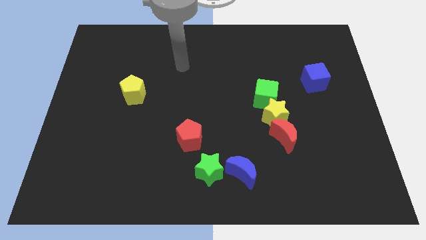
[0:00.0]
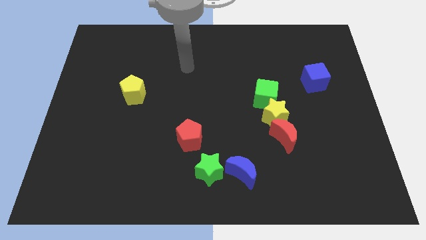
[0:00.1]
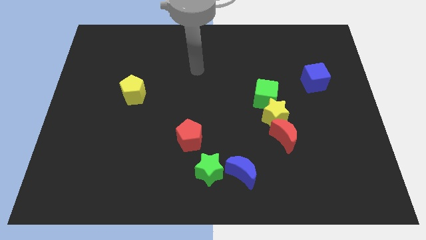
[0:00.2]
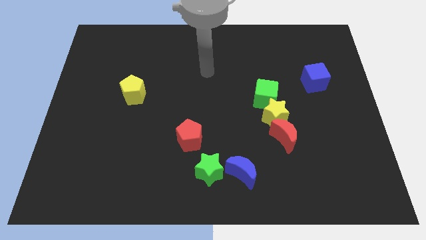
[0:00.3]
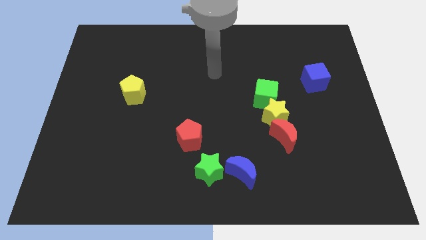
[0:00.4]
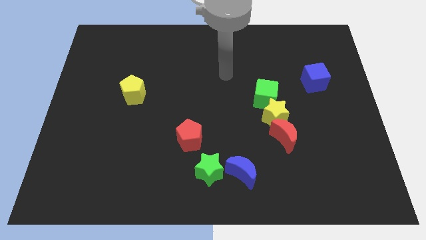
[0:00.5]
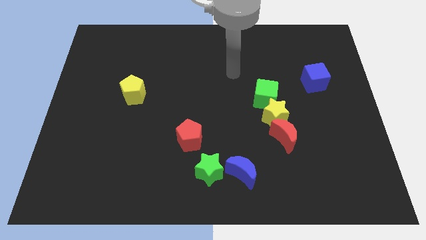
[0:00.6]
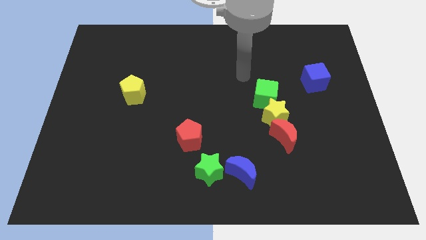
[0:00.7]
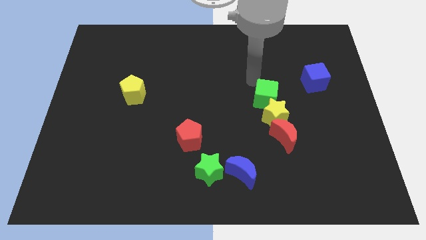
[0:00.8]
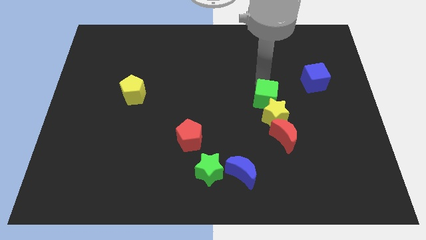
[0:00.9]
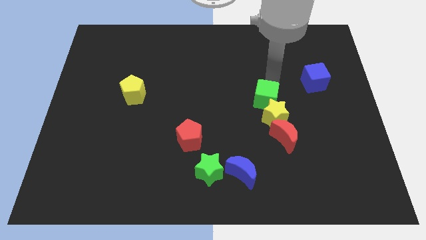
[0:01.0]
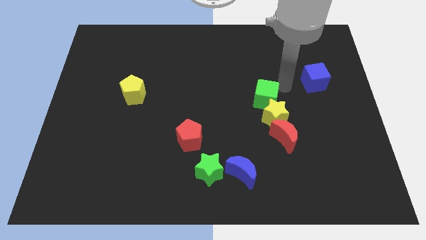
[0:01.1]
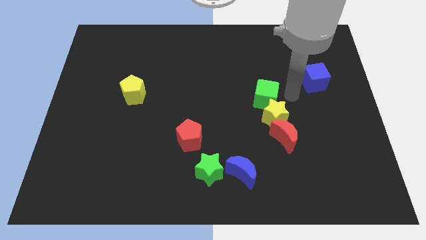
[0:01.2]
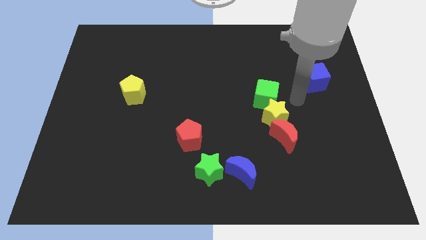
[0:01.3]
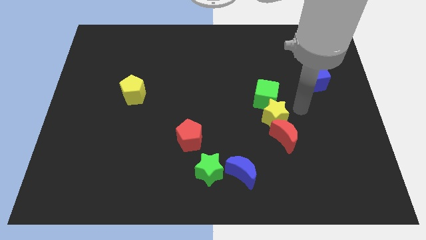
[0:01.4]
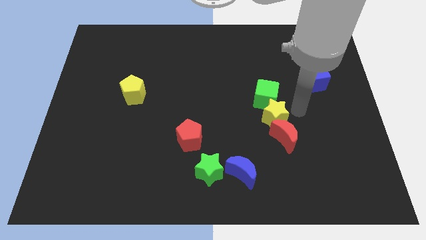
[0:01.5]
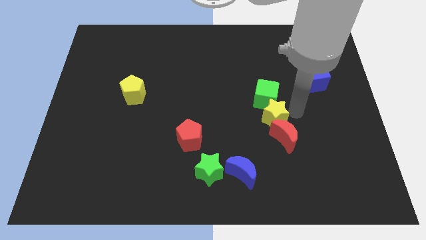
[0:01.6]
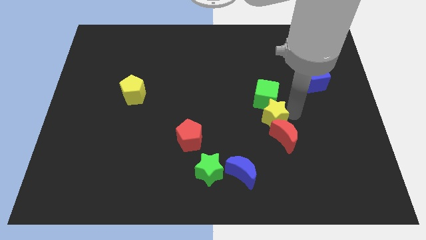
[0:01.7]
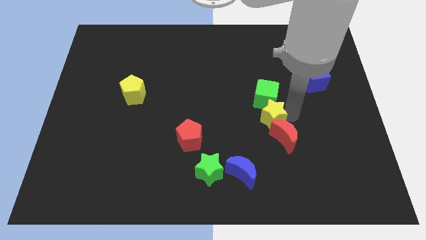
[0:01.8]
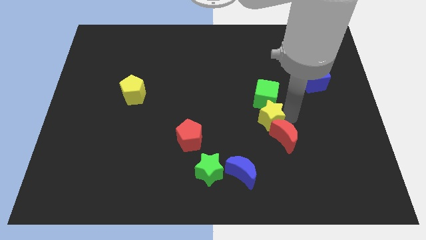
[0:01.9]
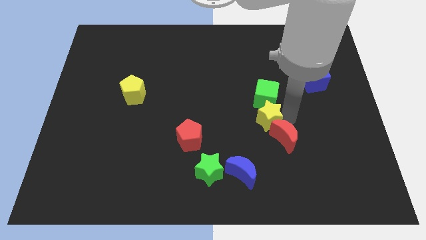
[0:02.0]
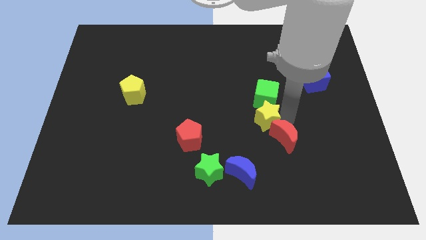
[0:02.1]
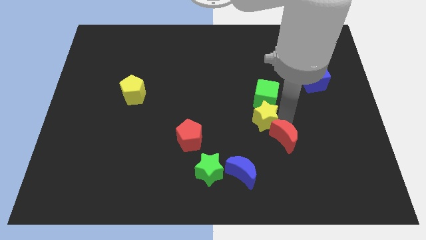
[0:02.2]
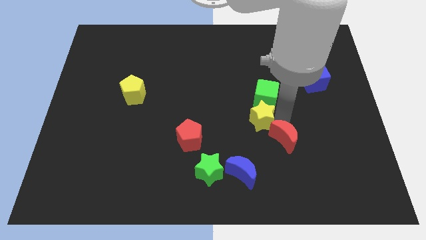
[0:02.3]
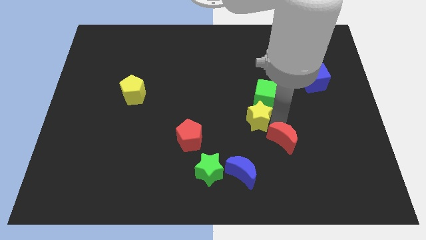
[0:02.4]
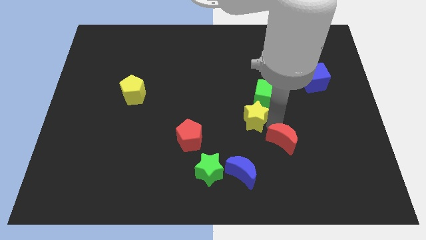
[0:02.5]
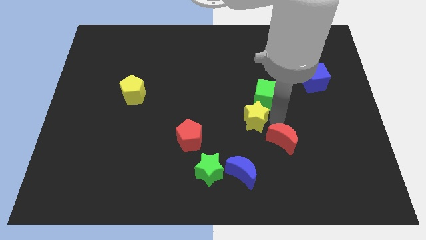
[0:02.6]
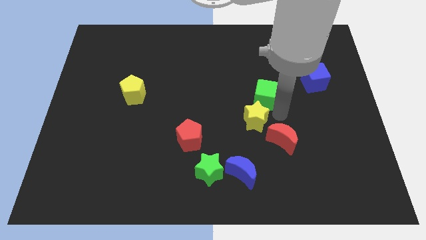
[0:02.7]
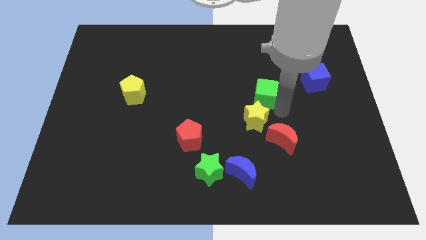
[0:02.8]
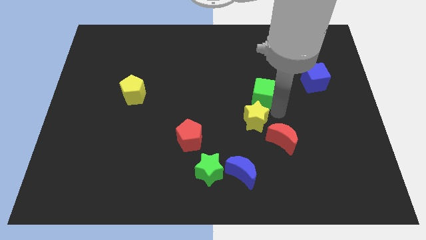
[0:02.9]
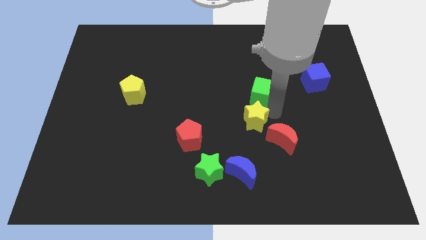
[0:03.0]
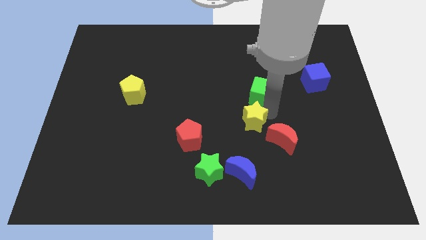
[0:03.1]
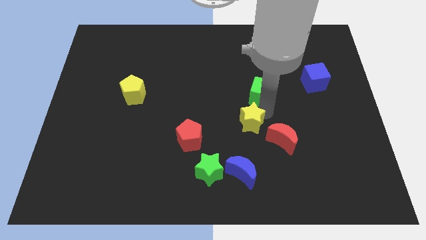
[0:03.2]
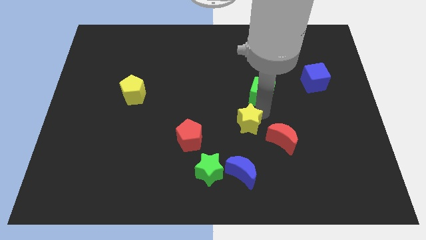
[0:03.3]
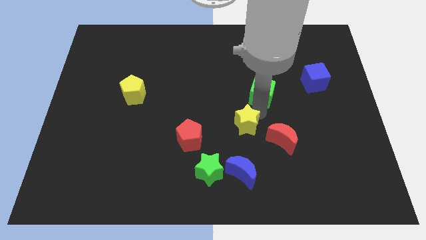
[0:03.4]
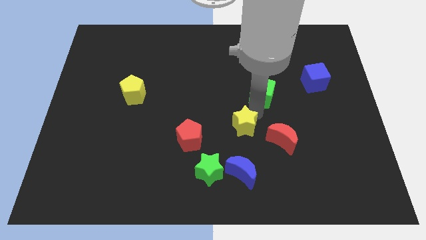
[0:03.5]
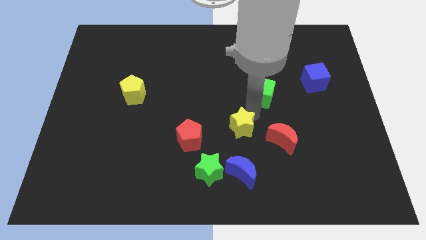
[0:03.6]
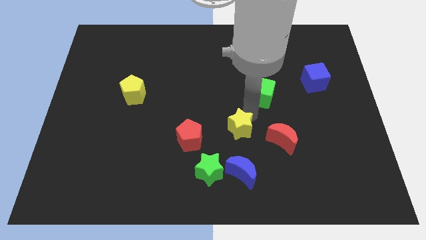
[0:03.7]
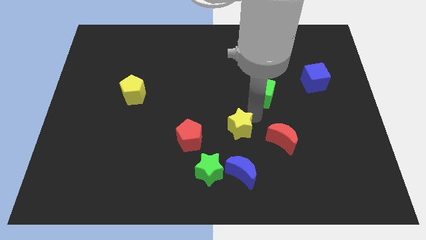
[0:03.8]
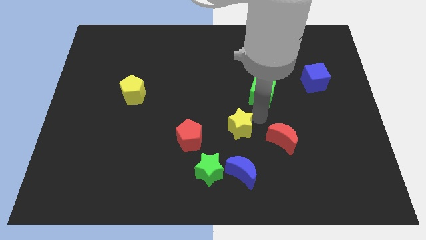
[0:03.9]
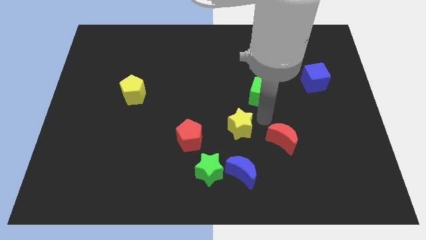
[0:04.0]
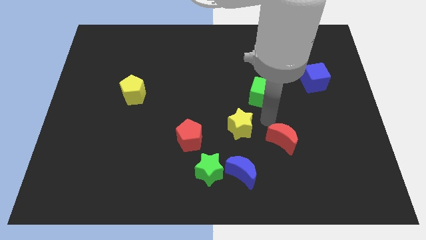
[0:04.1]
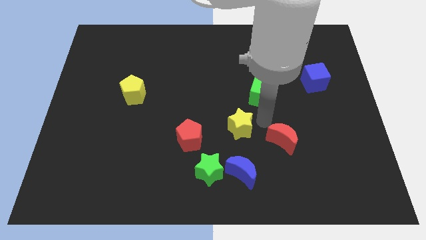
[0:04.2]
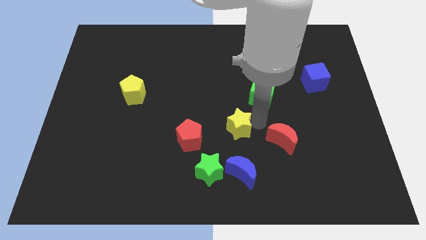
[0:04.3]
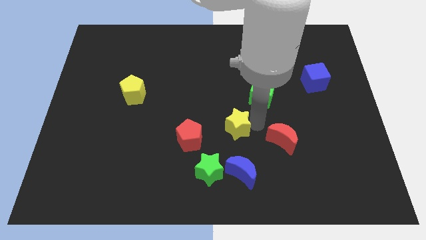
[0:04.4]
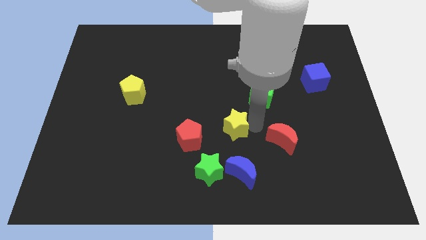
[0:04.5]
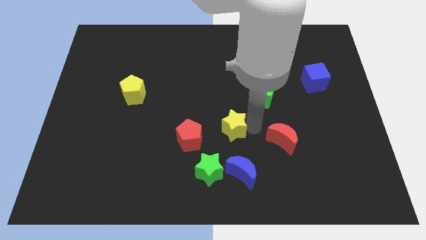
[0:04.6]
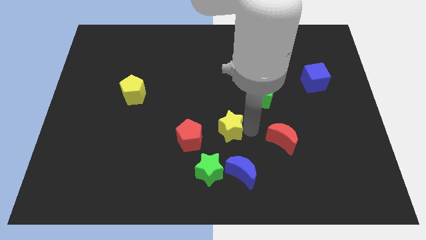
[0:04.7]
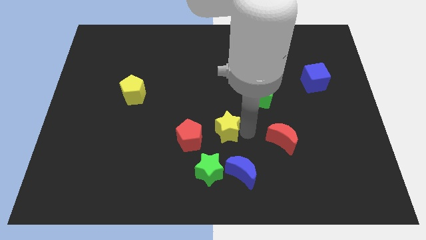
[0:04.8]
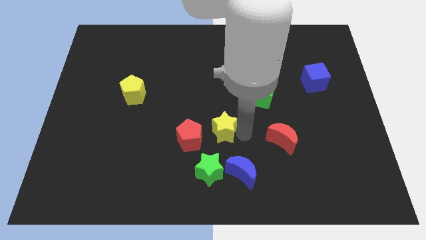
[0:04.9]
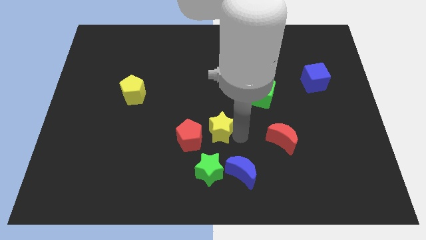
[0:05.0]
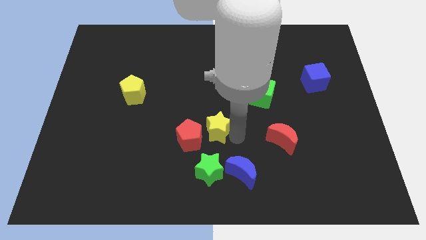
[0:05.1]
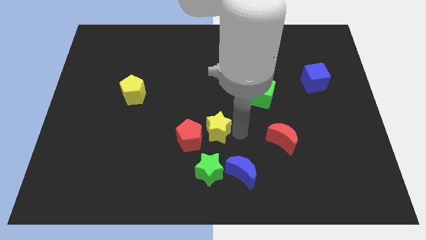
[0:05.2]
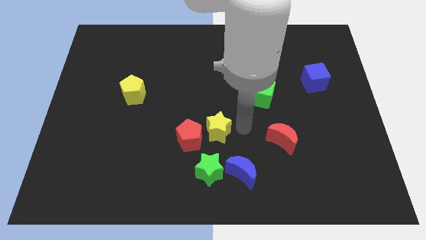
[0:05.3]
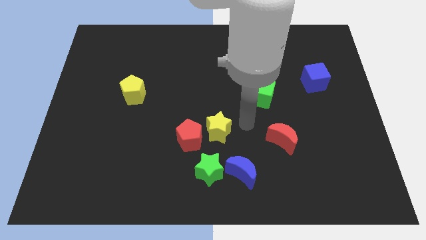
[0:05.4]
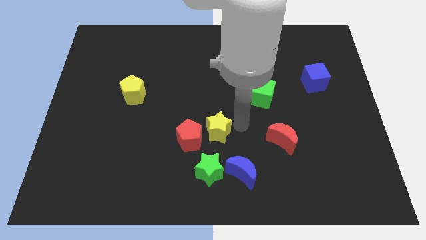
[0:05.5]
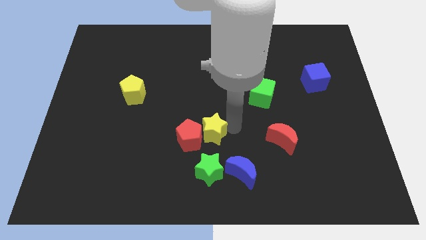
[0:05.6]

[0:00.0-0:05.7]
put the yellow star close to the red pentagon

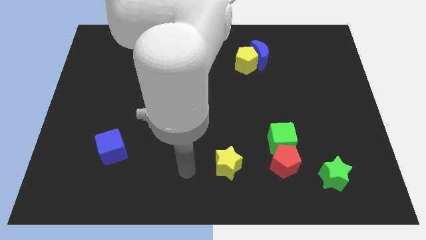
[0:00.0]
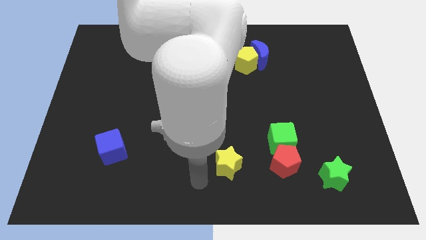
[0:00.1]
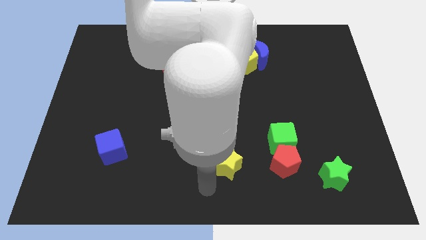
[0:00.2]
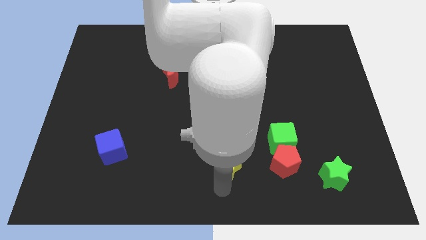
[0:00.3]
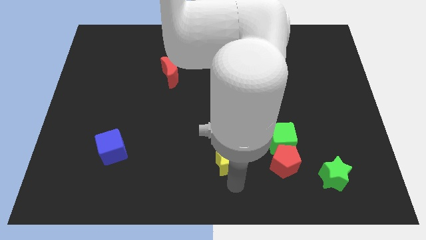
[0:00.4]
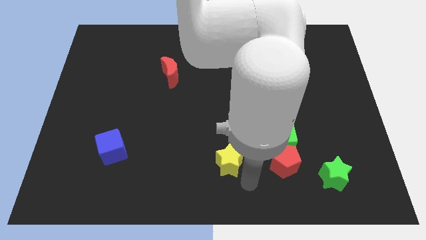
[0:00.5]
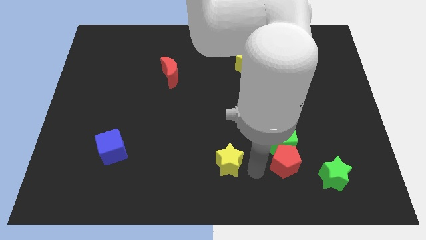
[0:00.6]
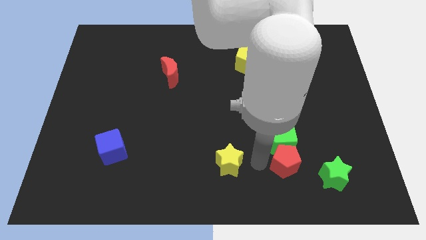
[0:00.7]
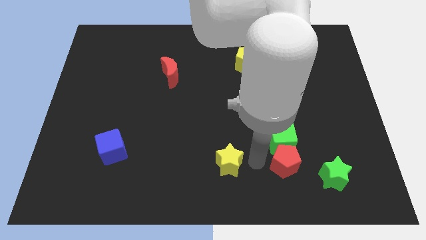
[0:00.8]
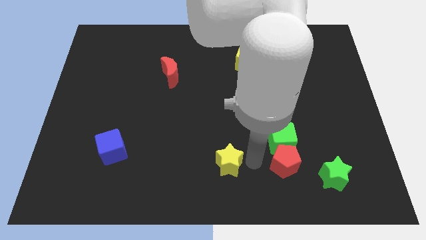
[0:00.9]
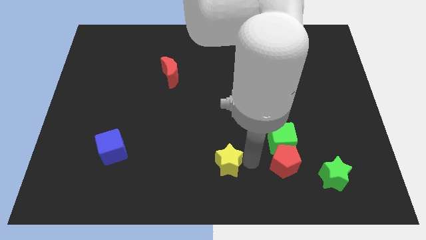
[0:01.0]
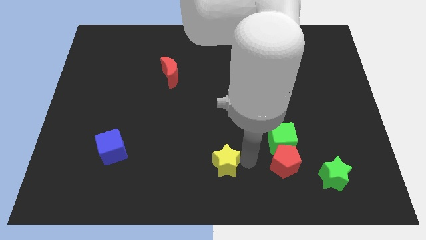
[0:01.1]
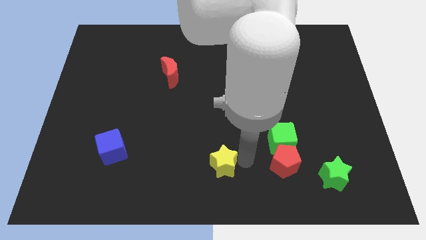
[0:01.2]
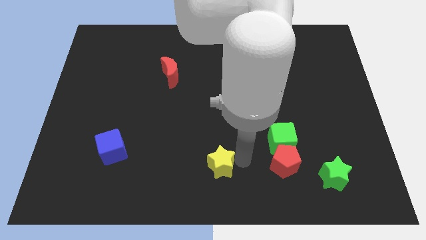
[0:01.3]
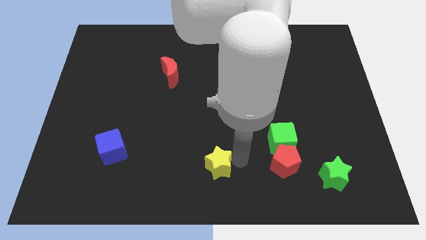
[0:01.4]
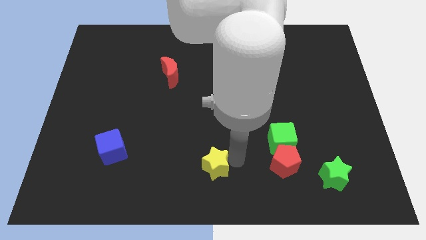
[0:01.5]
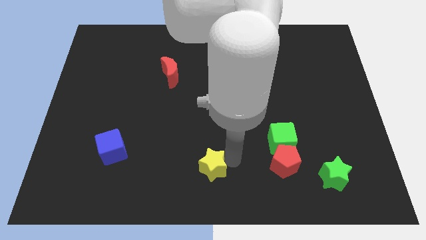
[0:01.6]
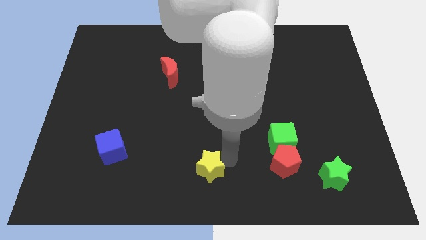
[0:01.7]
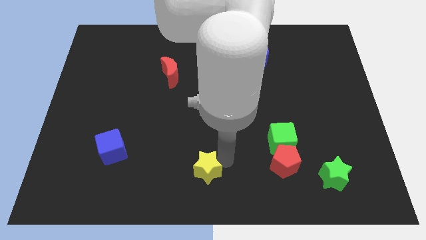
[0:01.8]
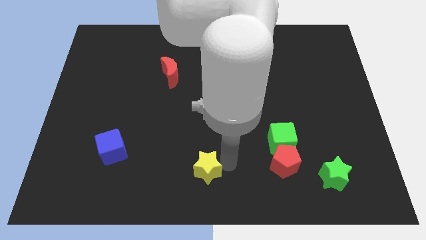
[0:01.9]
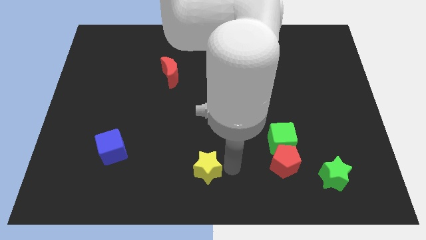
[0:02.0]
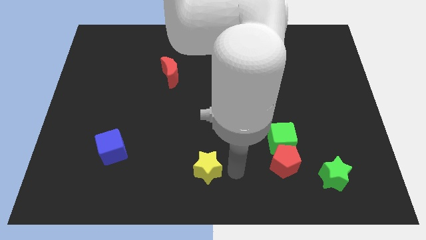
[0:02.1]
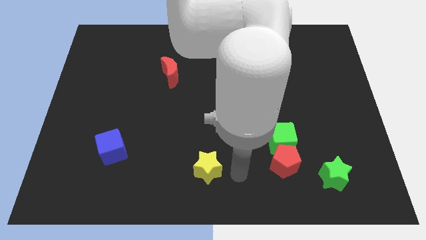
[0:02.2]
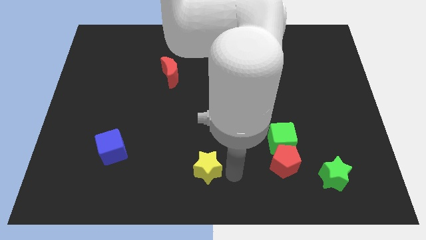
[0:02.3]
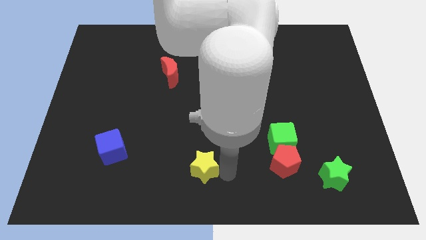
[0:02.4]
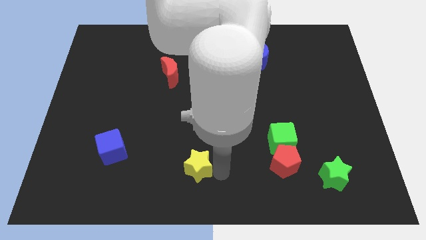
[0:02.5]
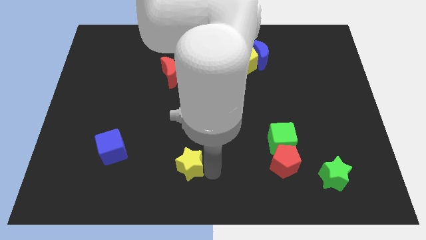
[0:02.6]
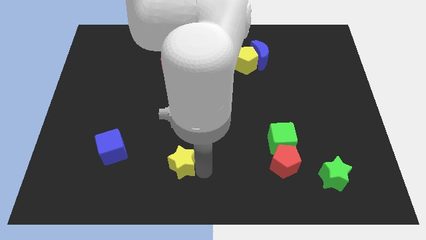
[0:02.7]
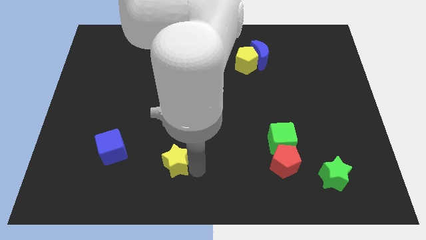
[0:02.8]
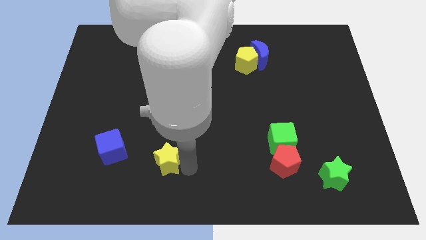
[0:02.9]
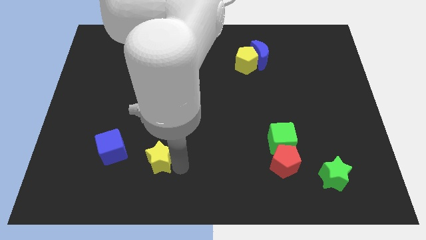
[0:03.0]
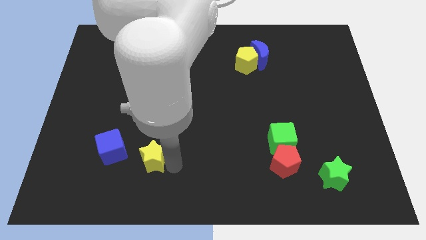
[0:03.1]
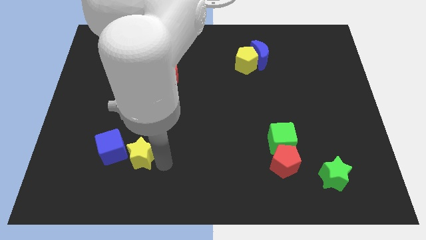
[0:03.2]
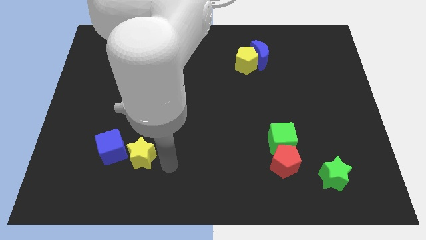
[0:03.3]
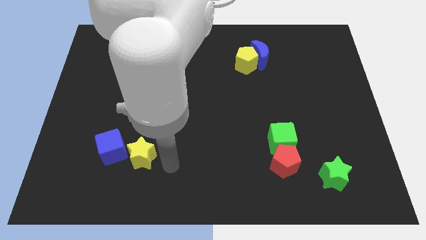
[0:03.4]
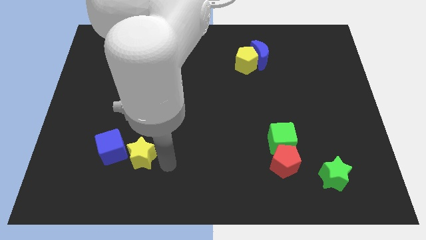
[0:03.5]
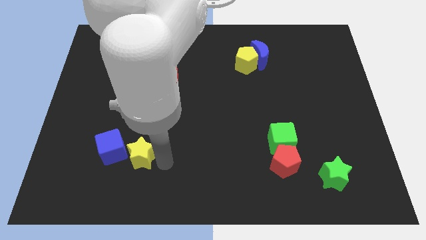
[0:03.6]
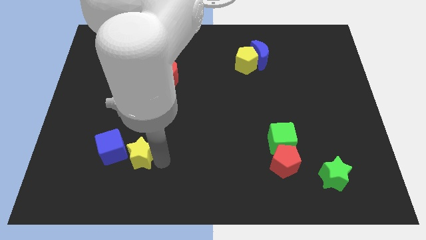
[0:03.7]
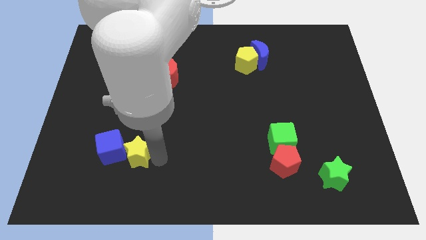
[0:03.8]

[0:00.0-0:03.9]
push the yellow star next to the blue cube
